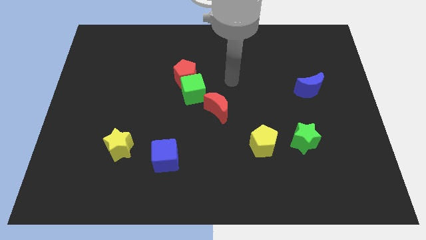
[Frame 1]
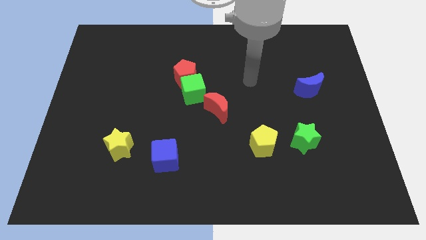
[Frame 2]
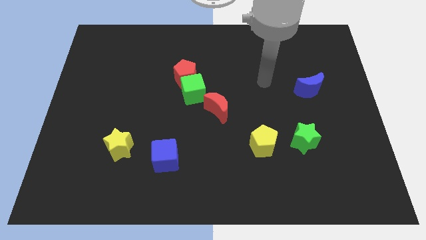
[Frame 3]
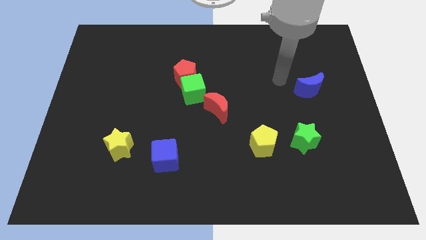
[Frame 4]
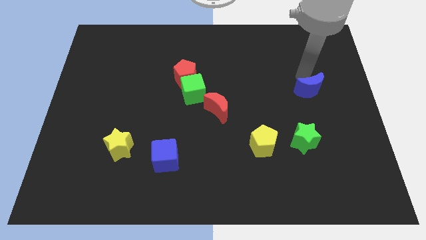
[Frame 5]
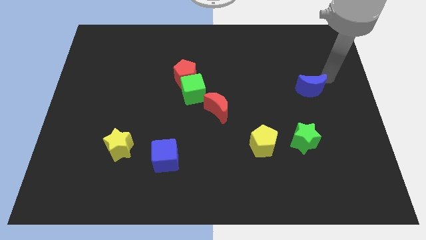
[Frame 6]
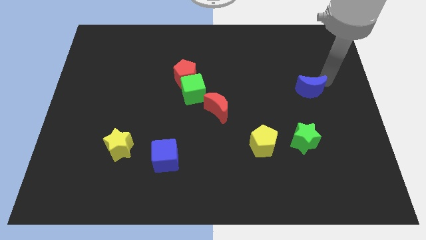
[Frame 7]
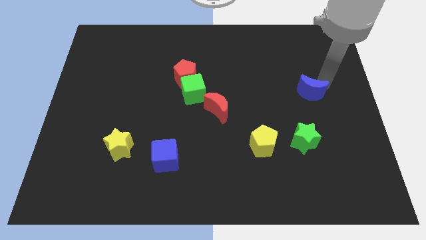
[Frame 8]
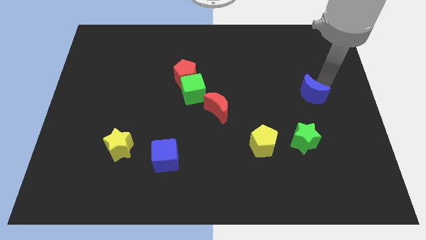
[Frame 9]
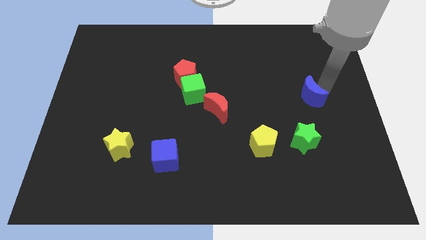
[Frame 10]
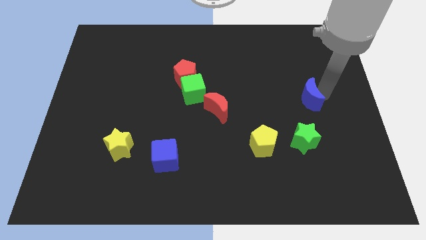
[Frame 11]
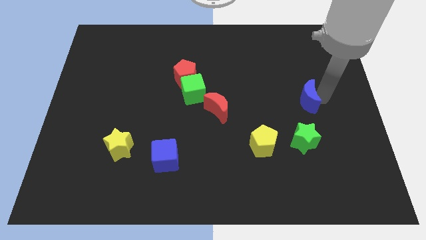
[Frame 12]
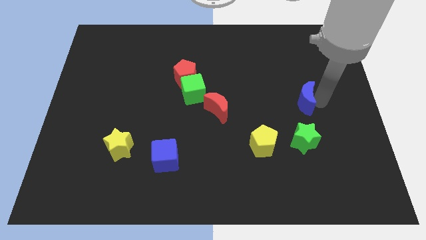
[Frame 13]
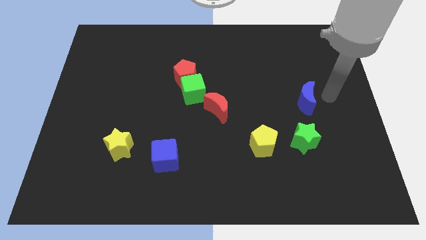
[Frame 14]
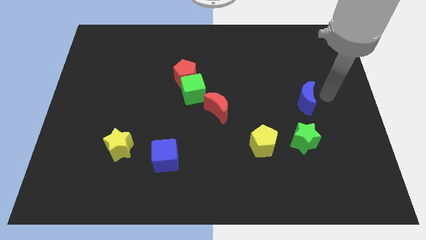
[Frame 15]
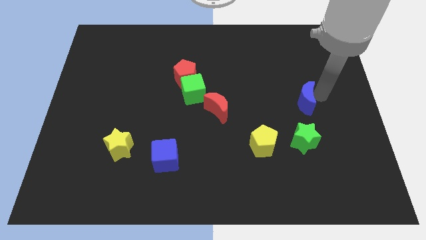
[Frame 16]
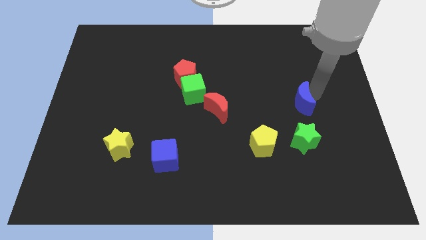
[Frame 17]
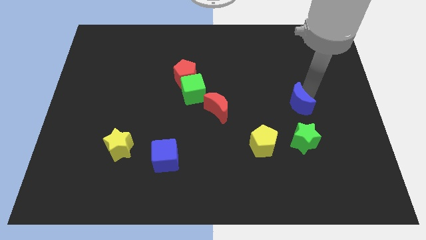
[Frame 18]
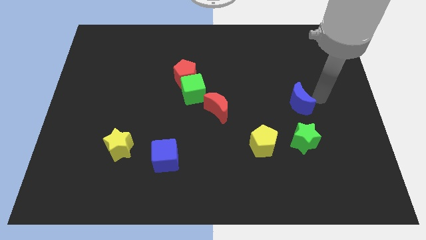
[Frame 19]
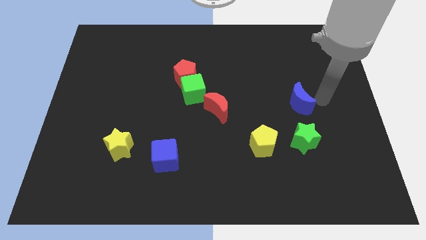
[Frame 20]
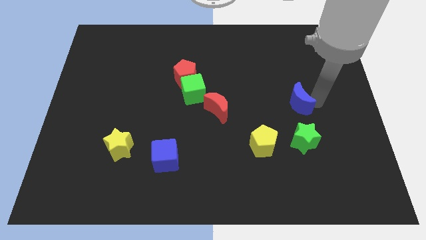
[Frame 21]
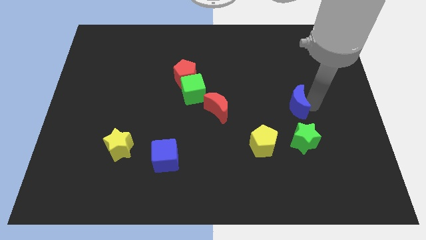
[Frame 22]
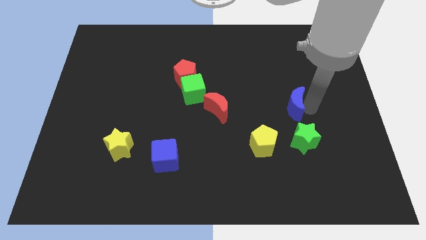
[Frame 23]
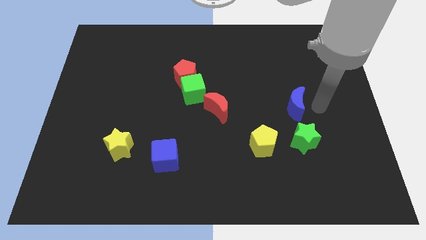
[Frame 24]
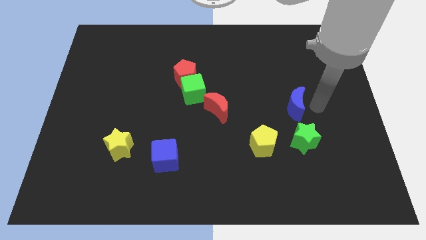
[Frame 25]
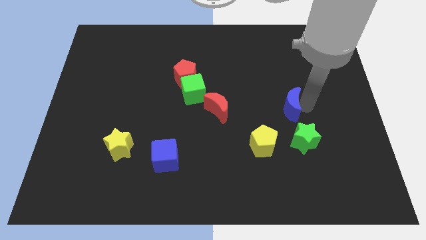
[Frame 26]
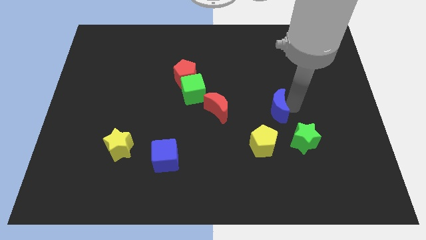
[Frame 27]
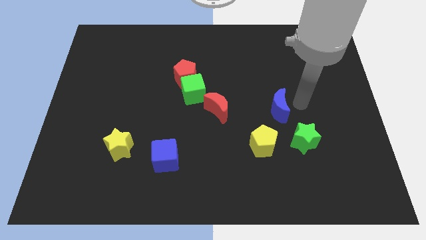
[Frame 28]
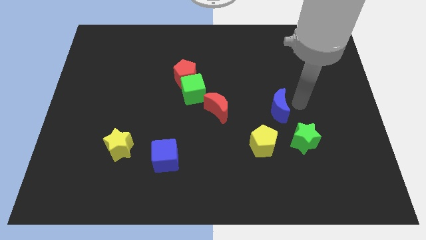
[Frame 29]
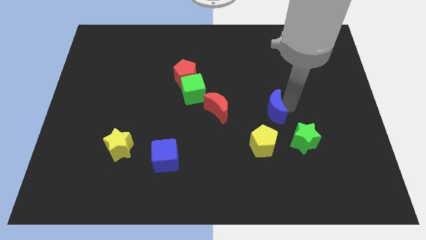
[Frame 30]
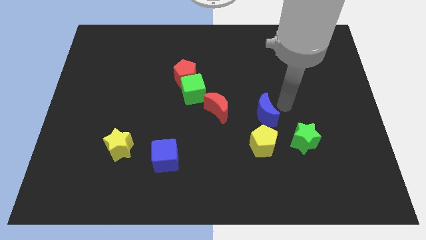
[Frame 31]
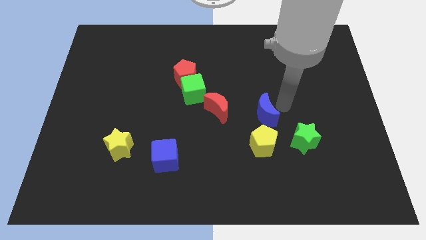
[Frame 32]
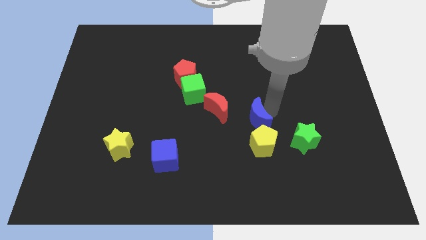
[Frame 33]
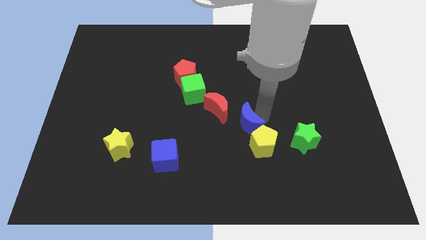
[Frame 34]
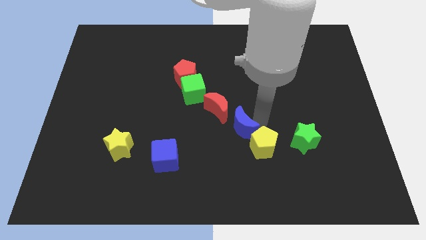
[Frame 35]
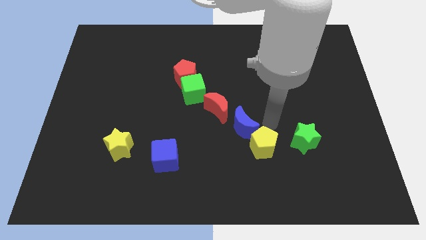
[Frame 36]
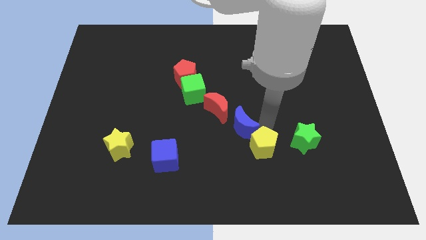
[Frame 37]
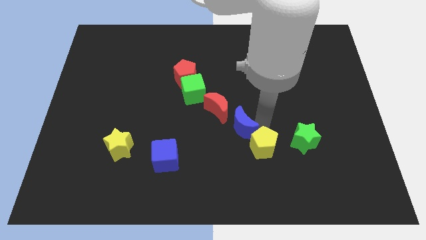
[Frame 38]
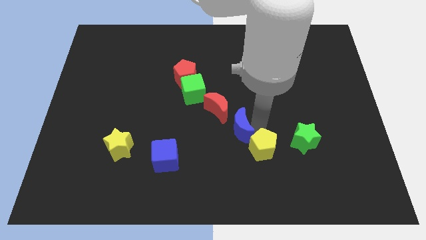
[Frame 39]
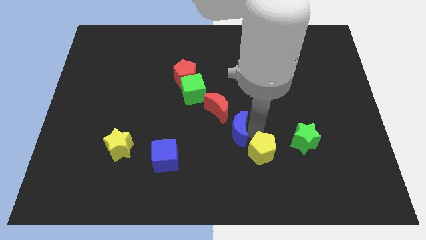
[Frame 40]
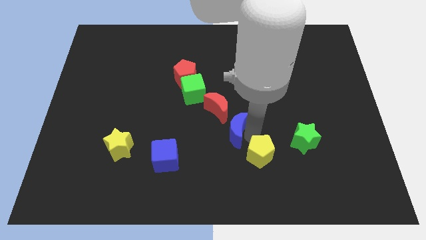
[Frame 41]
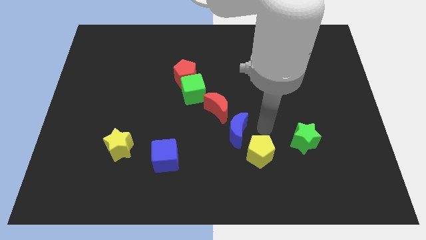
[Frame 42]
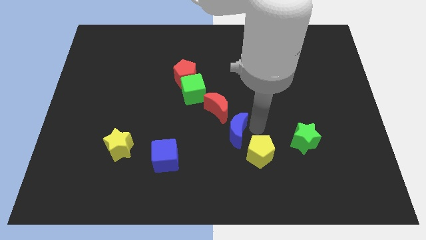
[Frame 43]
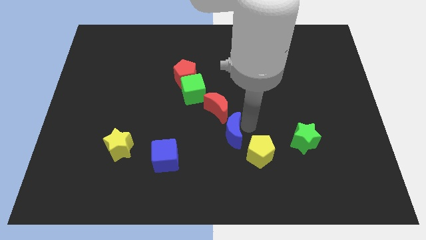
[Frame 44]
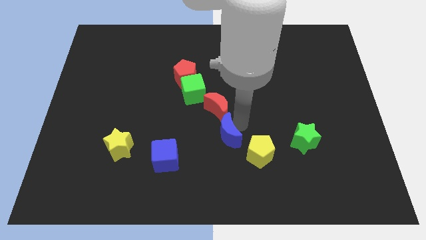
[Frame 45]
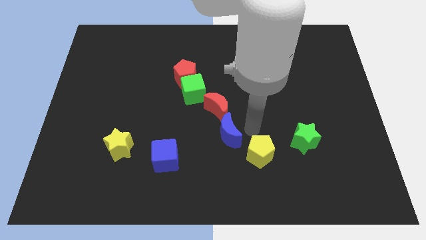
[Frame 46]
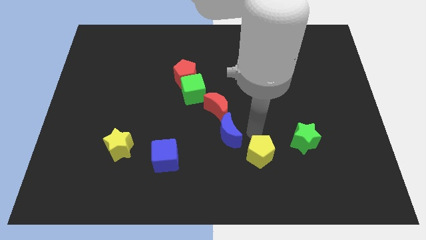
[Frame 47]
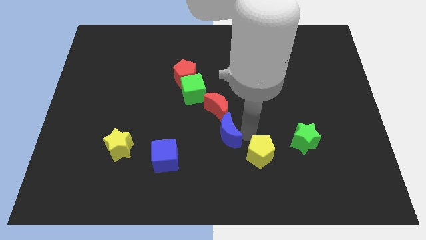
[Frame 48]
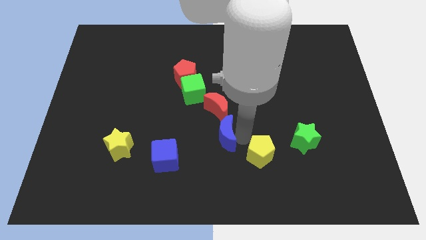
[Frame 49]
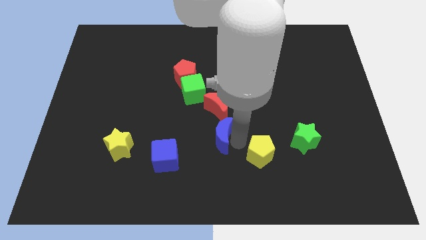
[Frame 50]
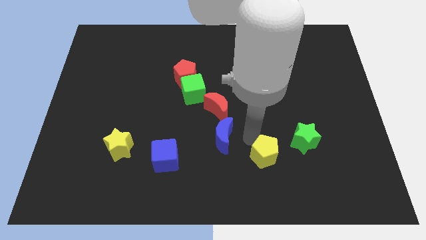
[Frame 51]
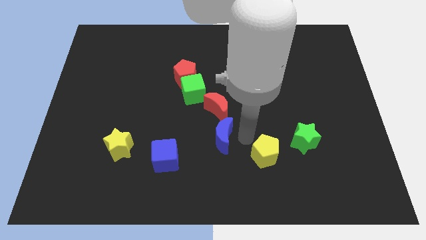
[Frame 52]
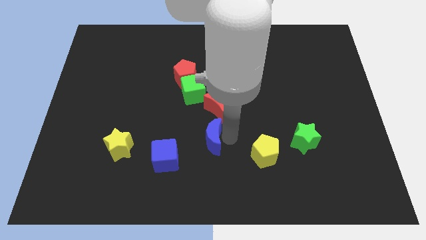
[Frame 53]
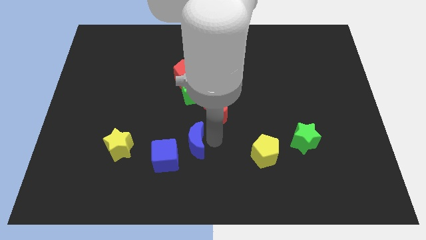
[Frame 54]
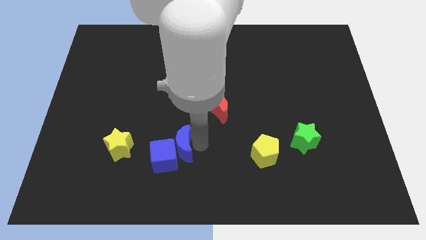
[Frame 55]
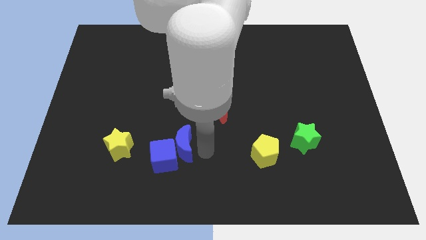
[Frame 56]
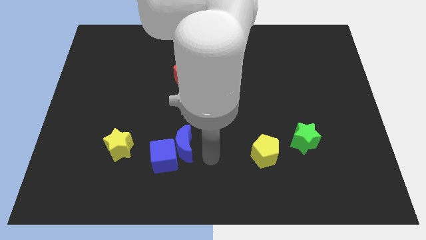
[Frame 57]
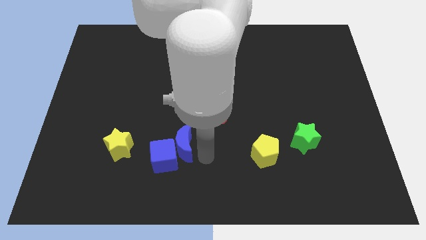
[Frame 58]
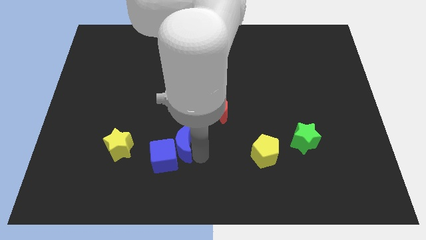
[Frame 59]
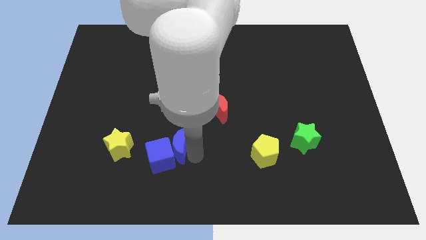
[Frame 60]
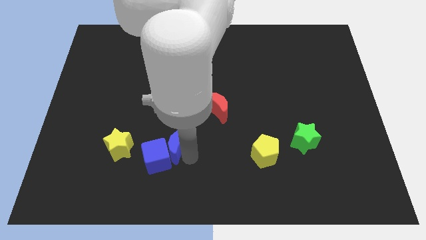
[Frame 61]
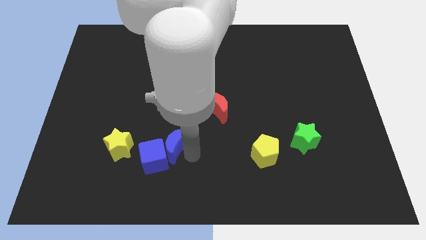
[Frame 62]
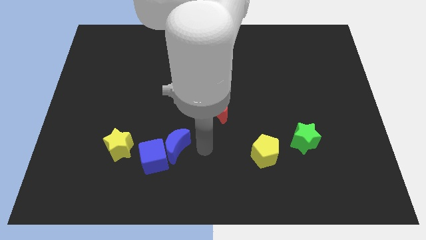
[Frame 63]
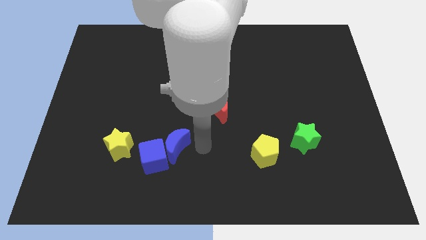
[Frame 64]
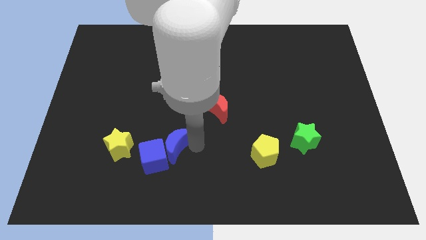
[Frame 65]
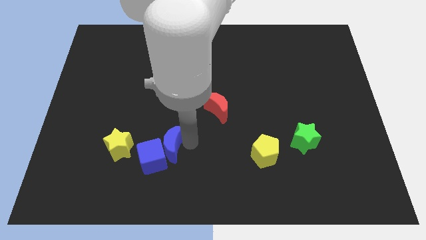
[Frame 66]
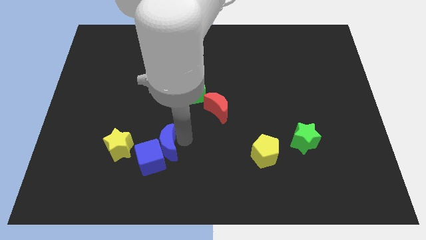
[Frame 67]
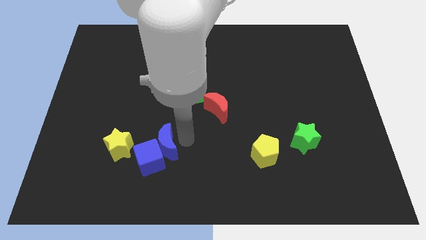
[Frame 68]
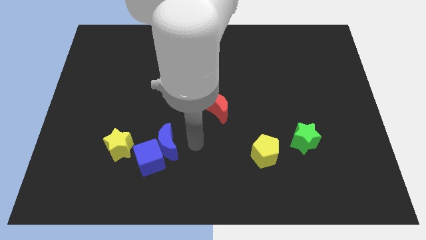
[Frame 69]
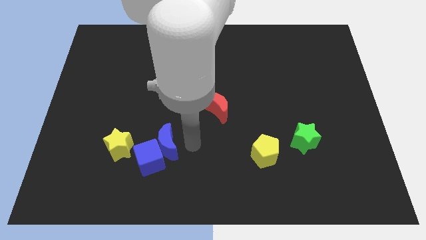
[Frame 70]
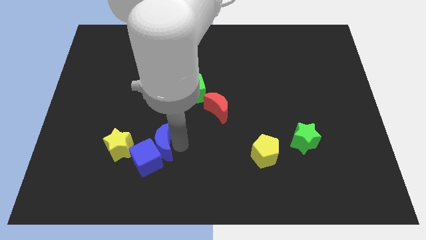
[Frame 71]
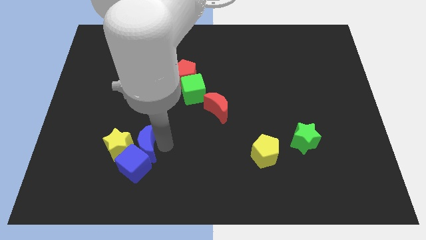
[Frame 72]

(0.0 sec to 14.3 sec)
slide the blue moon towards the yellow star

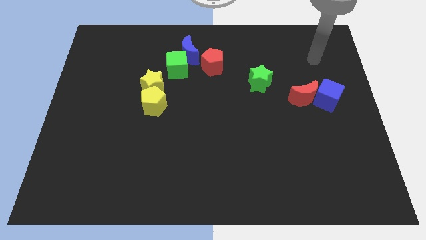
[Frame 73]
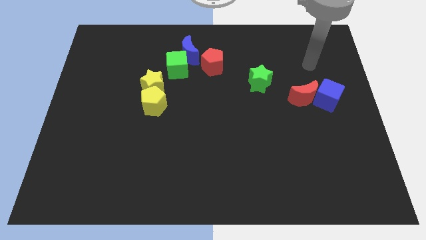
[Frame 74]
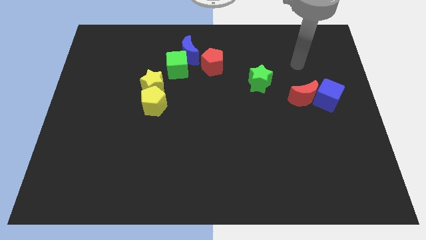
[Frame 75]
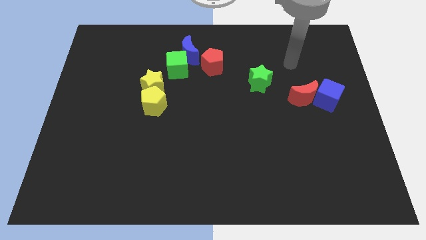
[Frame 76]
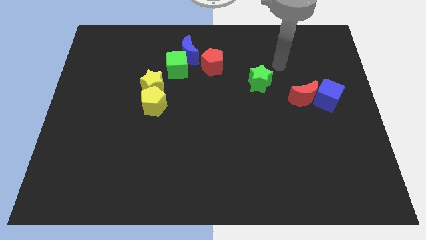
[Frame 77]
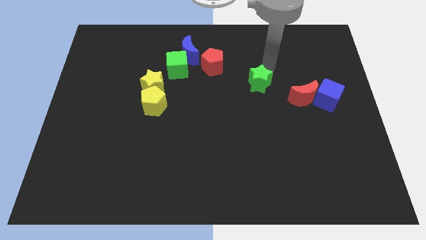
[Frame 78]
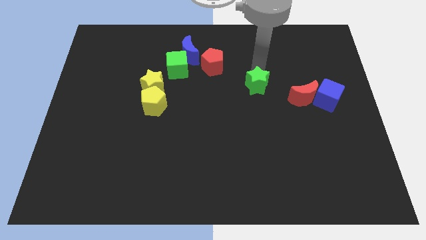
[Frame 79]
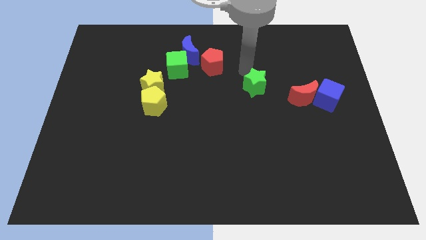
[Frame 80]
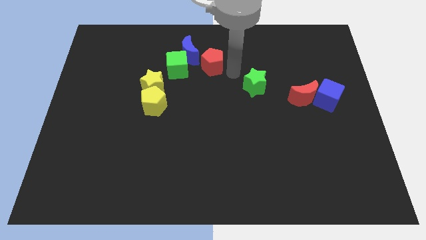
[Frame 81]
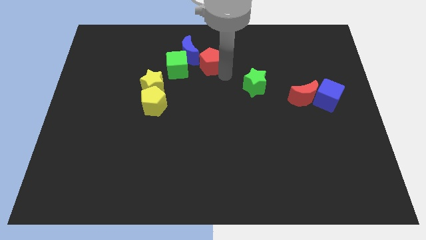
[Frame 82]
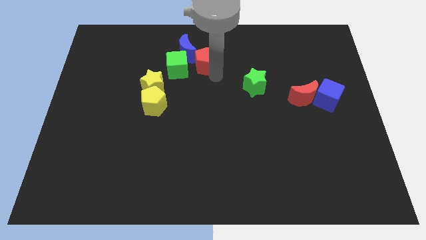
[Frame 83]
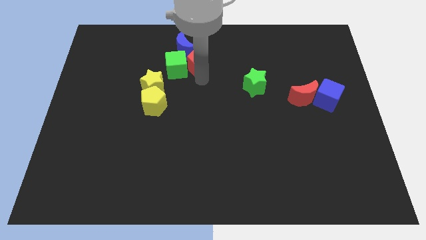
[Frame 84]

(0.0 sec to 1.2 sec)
slide the green cube close to the red pentagon
